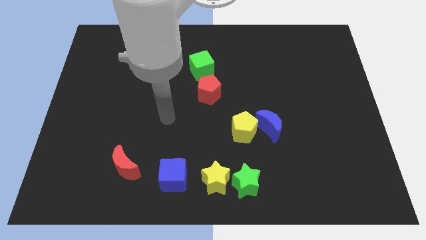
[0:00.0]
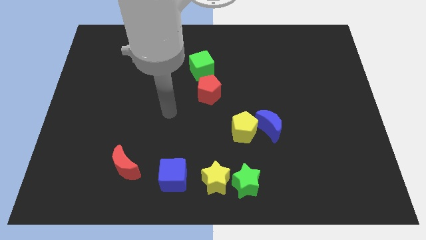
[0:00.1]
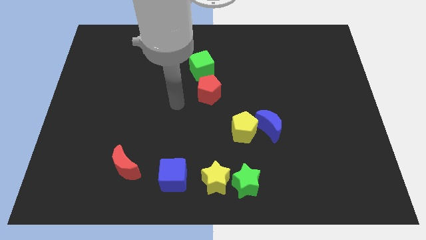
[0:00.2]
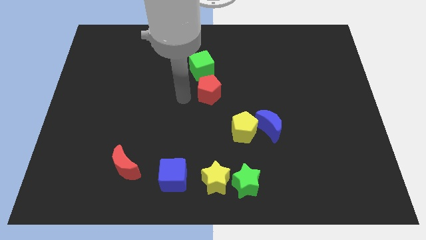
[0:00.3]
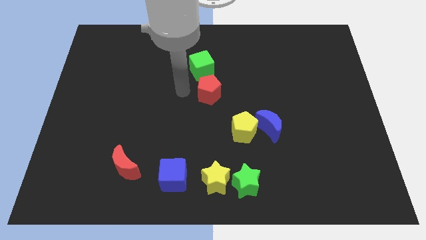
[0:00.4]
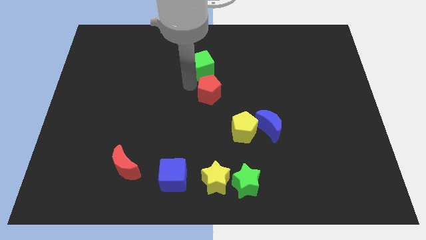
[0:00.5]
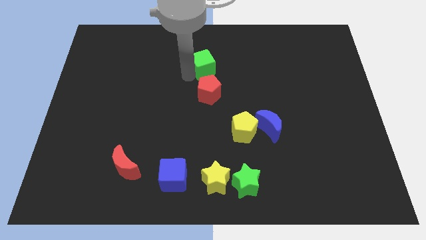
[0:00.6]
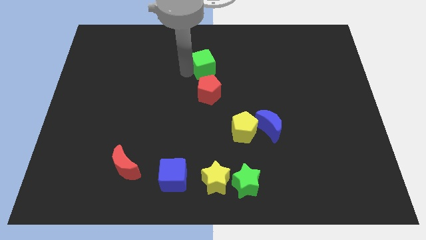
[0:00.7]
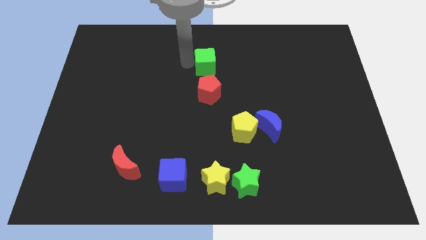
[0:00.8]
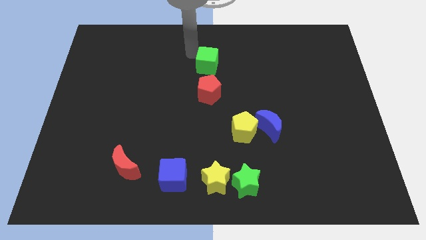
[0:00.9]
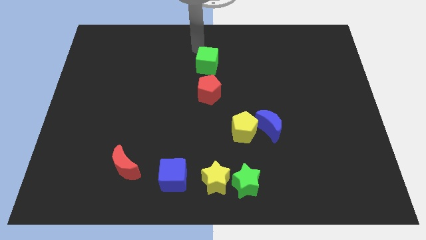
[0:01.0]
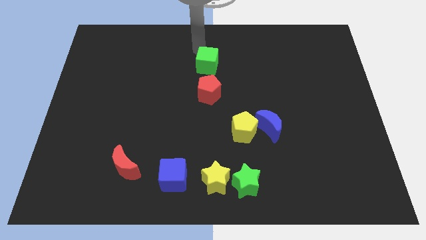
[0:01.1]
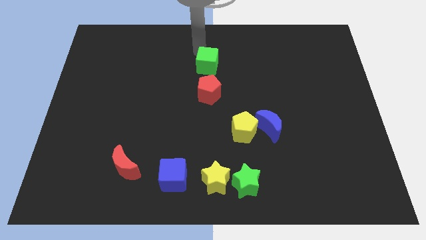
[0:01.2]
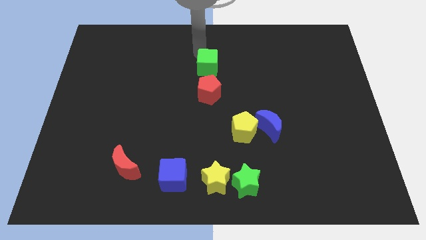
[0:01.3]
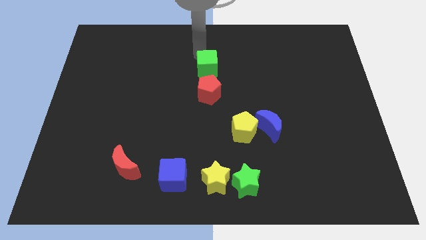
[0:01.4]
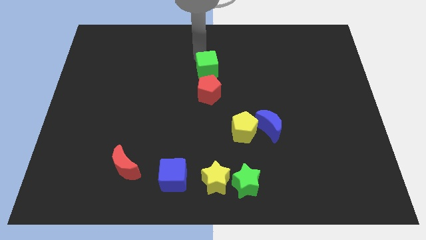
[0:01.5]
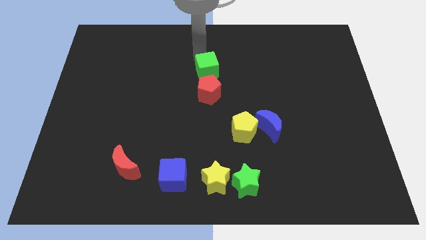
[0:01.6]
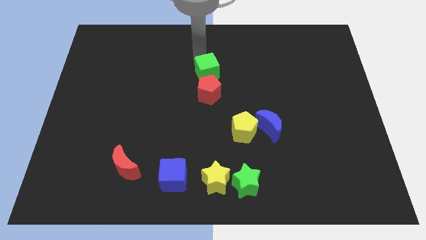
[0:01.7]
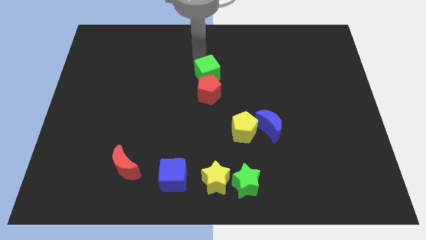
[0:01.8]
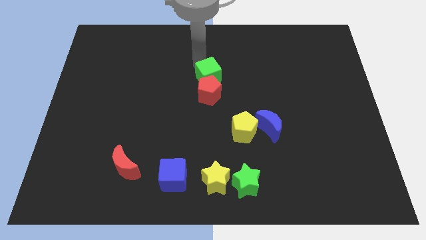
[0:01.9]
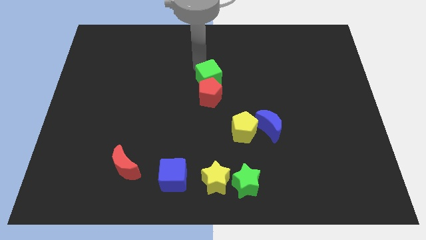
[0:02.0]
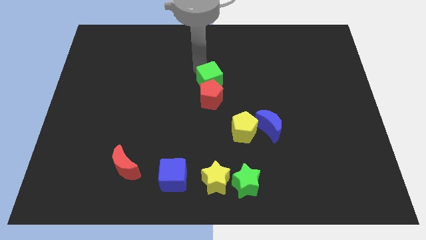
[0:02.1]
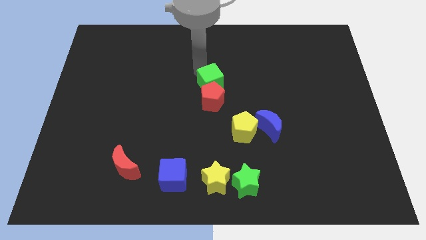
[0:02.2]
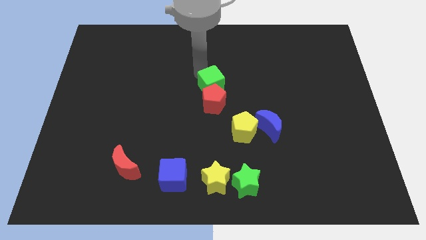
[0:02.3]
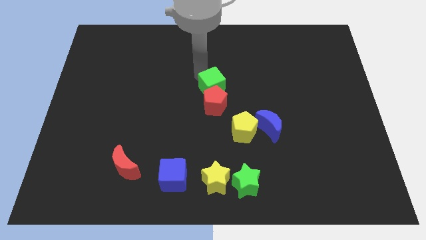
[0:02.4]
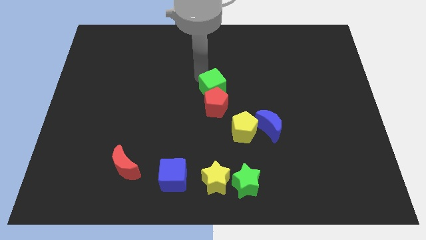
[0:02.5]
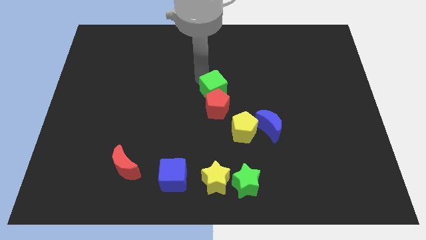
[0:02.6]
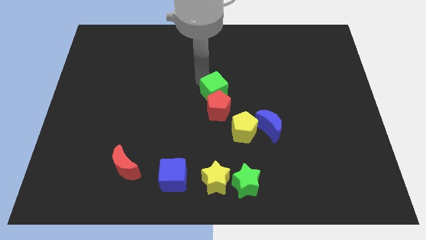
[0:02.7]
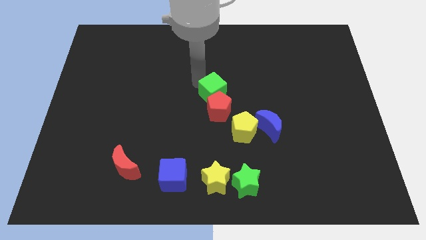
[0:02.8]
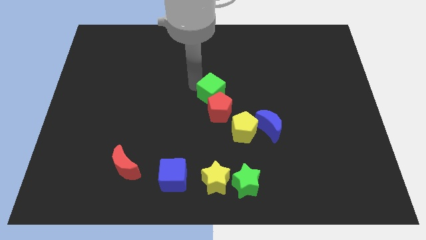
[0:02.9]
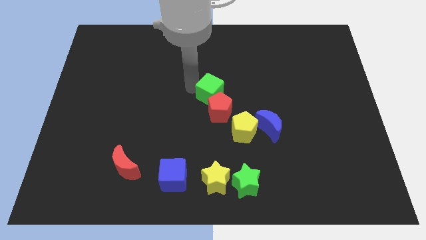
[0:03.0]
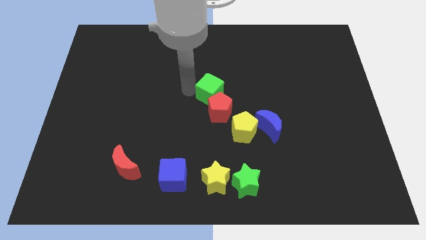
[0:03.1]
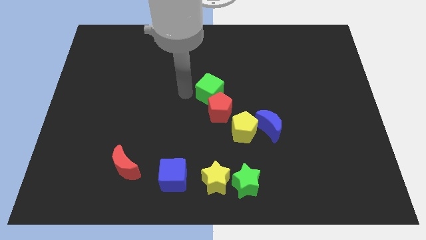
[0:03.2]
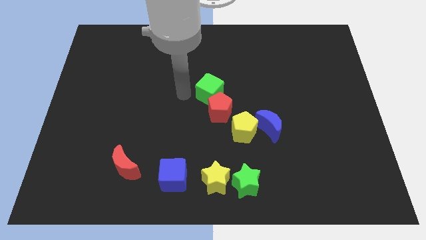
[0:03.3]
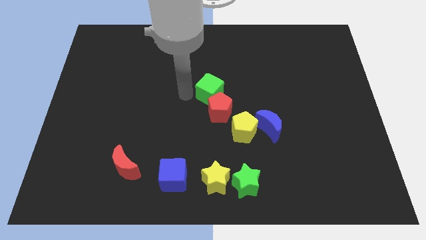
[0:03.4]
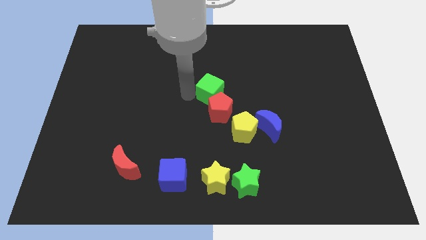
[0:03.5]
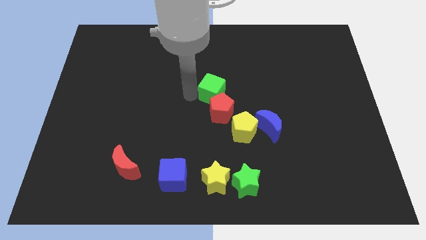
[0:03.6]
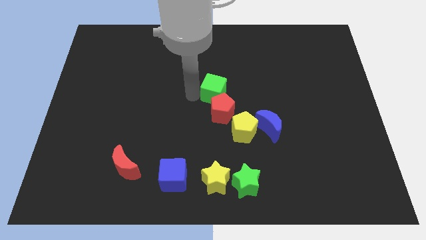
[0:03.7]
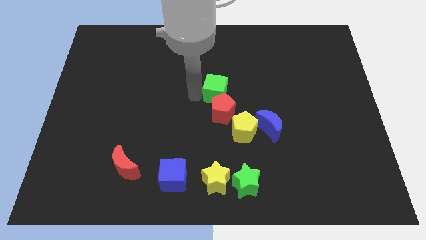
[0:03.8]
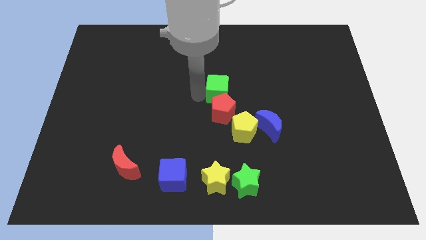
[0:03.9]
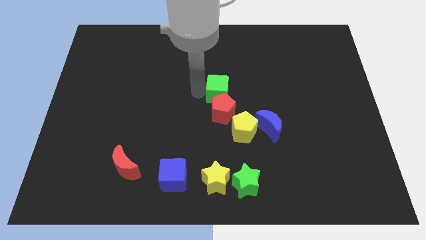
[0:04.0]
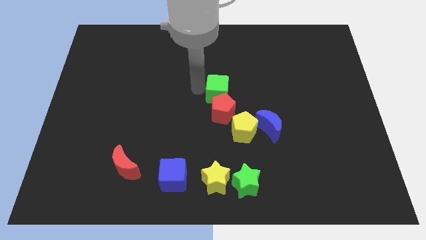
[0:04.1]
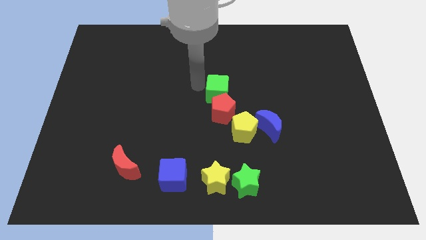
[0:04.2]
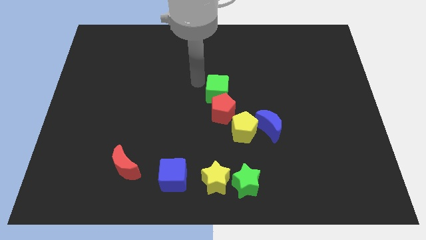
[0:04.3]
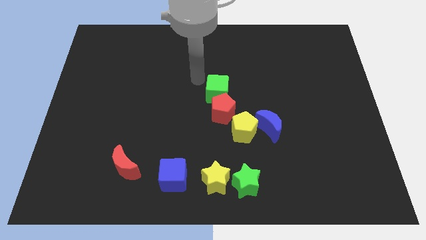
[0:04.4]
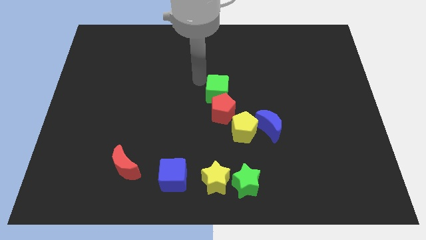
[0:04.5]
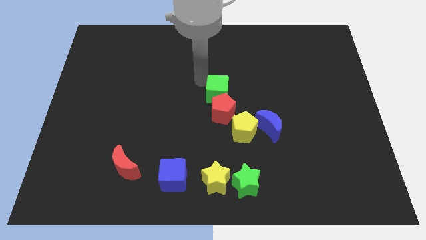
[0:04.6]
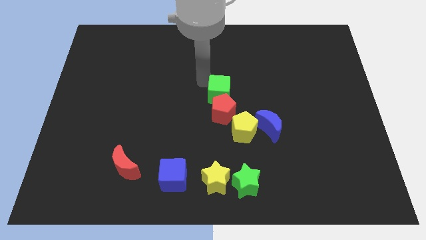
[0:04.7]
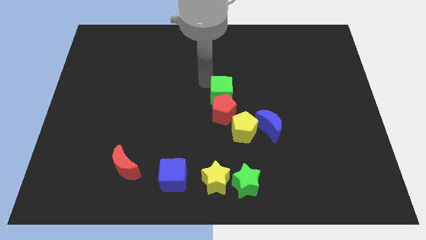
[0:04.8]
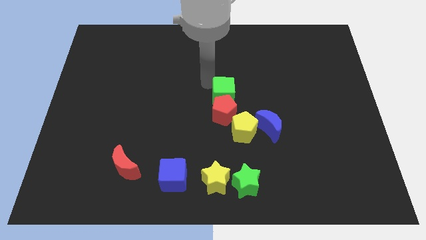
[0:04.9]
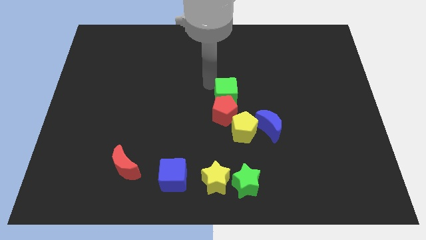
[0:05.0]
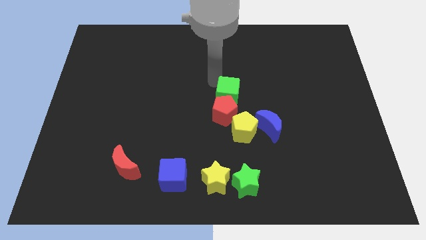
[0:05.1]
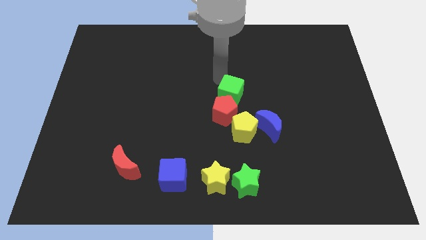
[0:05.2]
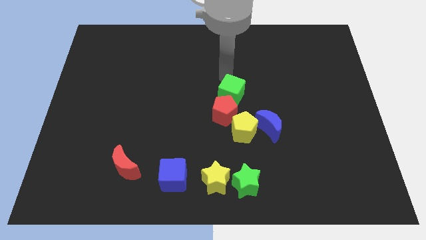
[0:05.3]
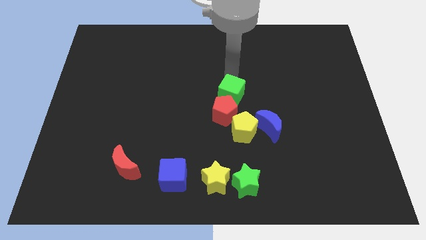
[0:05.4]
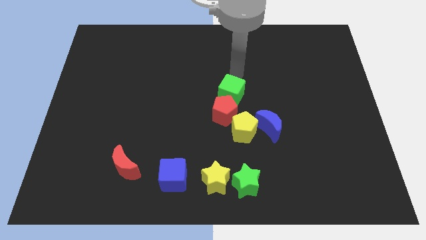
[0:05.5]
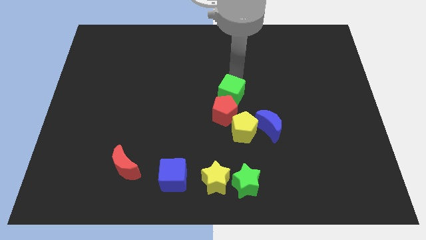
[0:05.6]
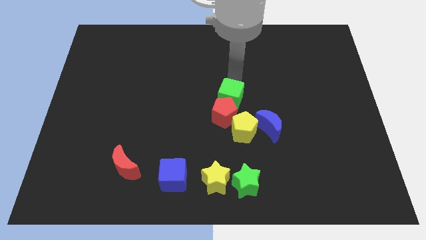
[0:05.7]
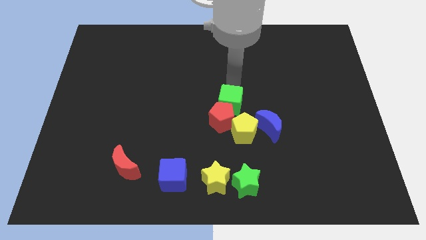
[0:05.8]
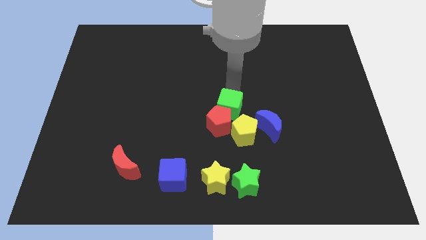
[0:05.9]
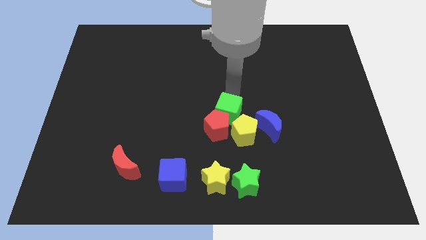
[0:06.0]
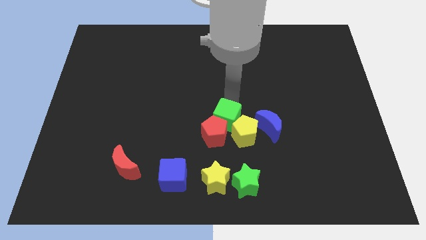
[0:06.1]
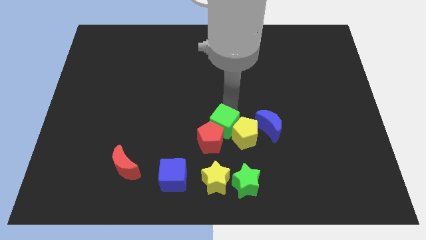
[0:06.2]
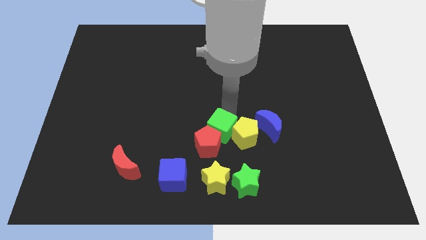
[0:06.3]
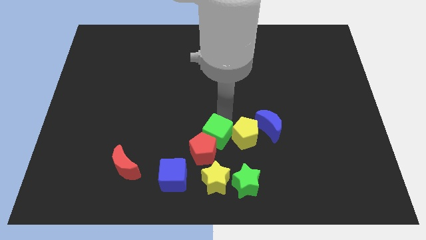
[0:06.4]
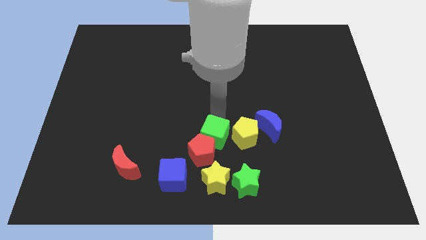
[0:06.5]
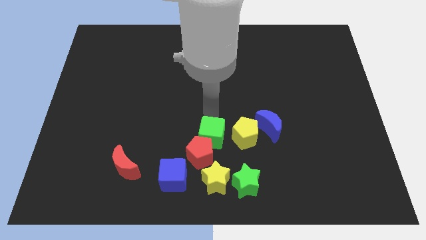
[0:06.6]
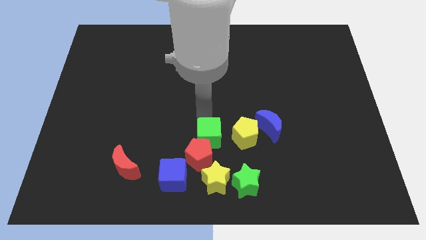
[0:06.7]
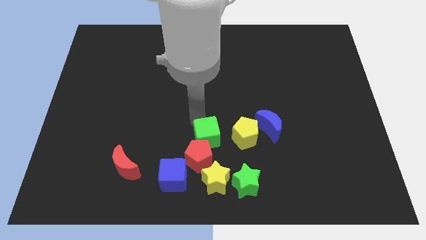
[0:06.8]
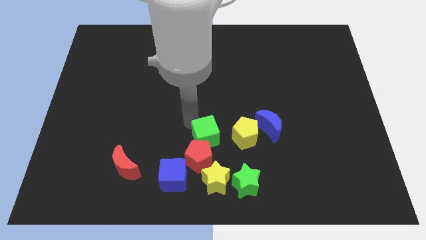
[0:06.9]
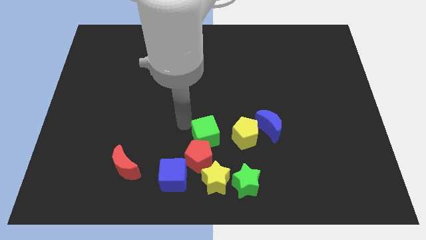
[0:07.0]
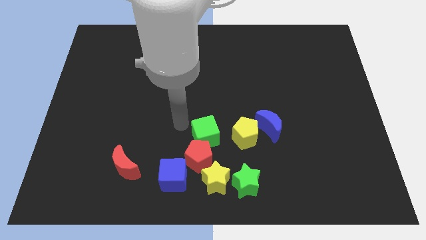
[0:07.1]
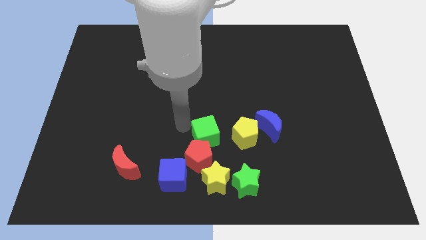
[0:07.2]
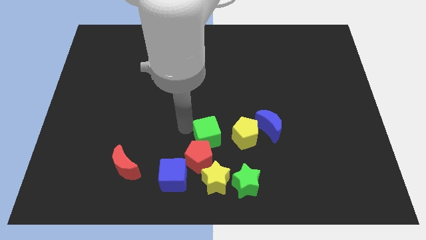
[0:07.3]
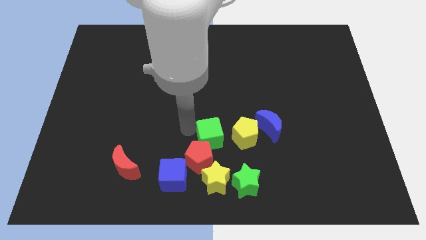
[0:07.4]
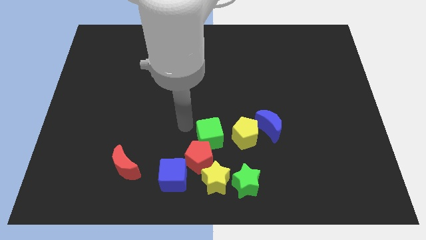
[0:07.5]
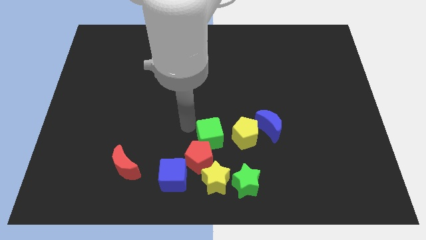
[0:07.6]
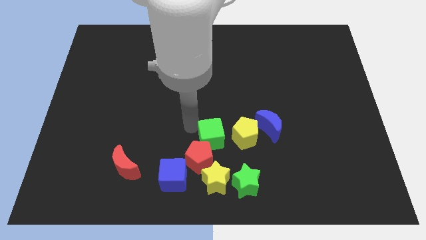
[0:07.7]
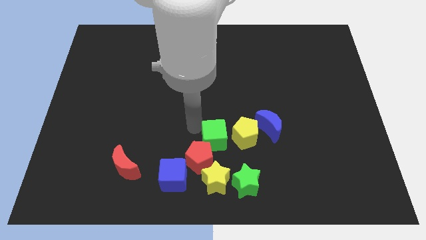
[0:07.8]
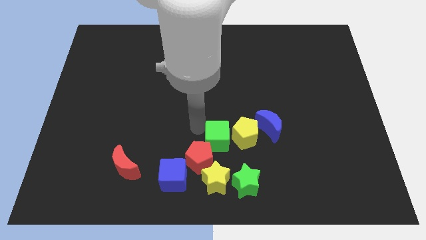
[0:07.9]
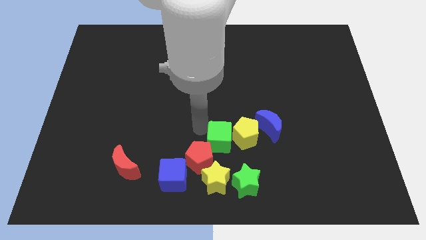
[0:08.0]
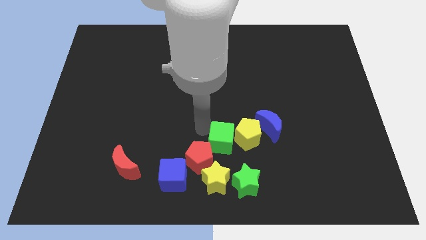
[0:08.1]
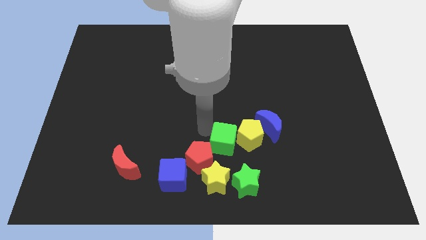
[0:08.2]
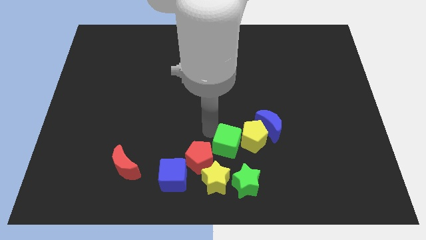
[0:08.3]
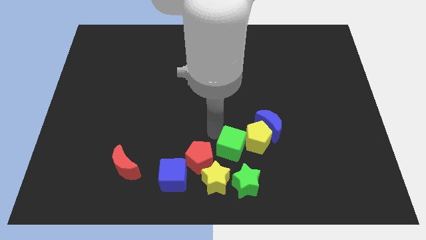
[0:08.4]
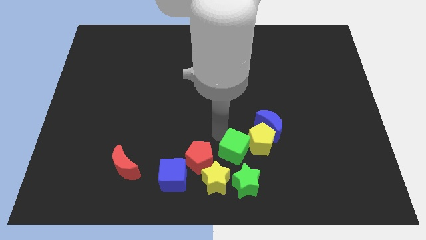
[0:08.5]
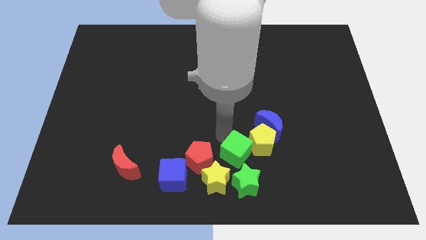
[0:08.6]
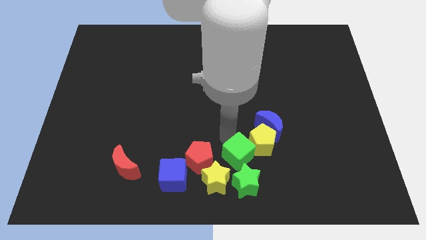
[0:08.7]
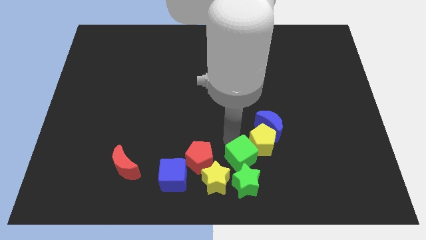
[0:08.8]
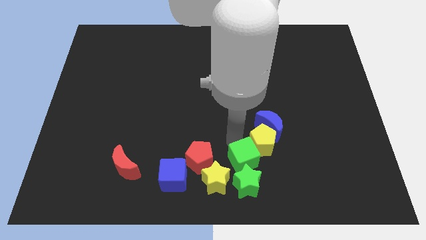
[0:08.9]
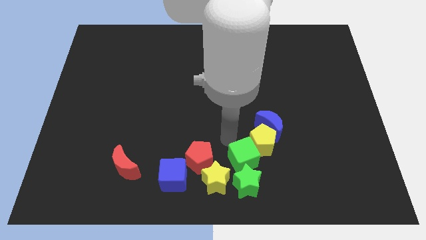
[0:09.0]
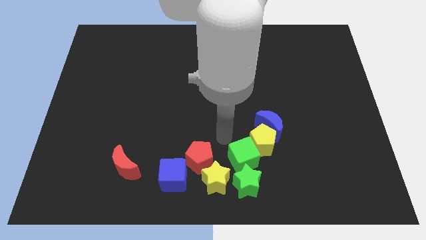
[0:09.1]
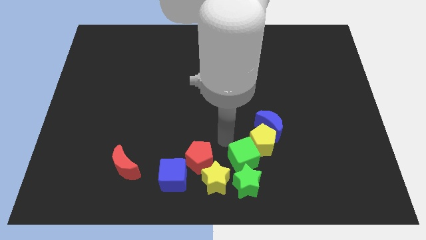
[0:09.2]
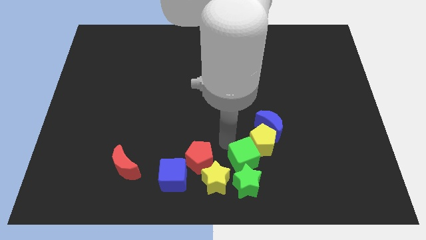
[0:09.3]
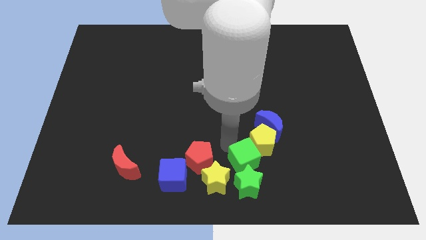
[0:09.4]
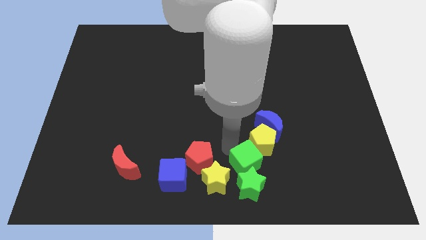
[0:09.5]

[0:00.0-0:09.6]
move the green cube to the right side of the yellow star
